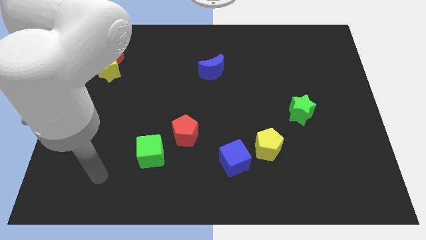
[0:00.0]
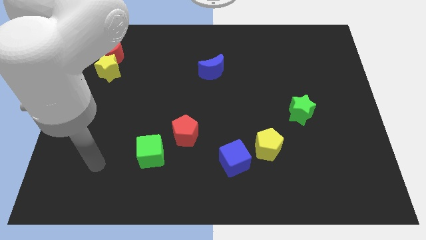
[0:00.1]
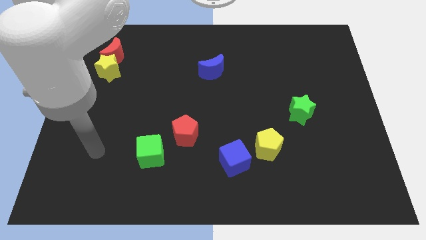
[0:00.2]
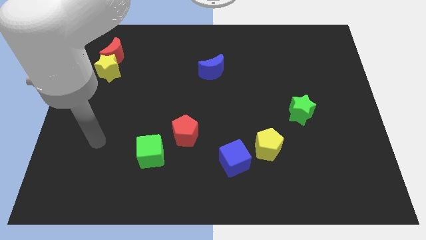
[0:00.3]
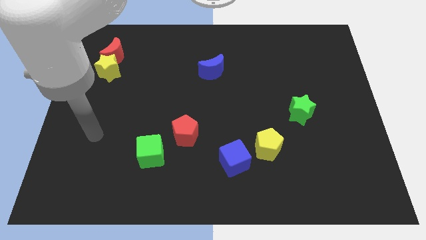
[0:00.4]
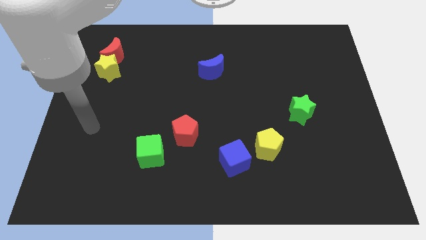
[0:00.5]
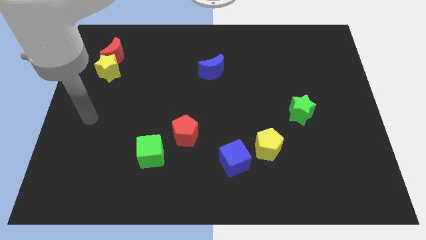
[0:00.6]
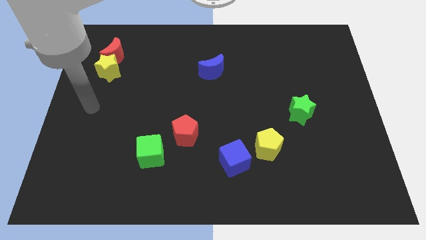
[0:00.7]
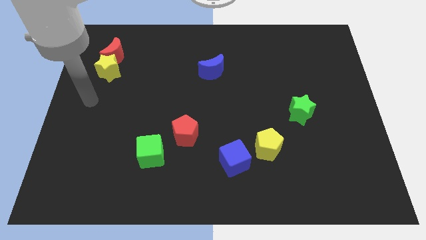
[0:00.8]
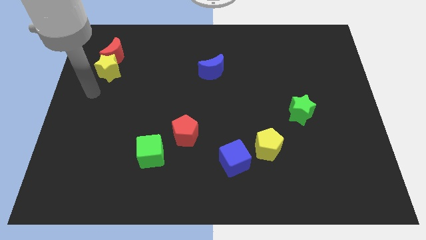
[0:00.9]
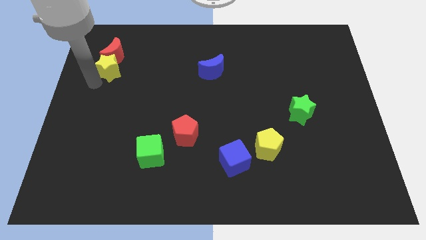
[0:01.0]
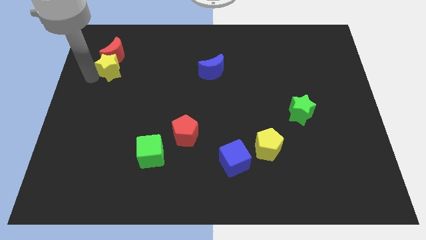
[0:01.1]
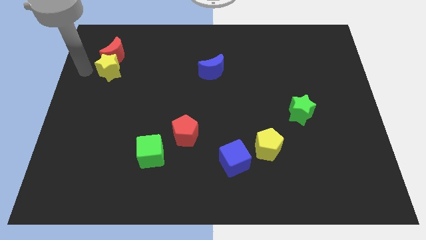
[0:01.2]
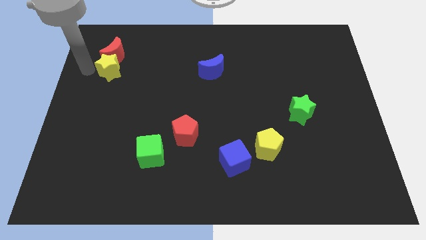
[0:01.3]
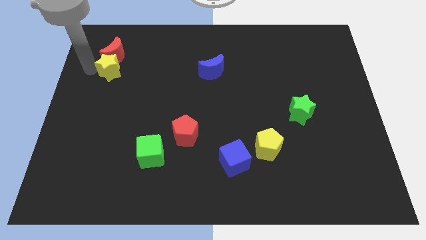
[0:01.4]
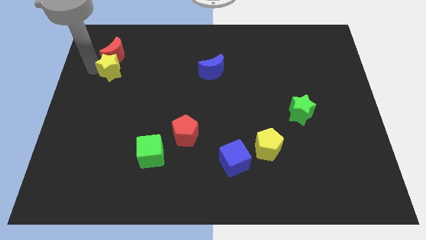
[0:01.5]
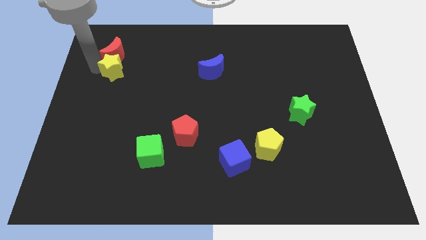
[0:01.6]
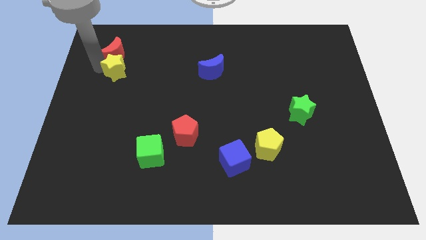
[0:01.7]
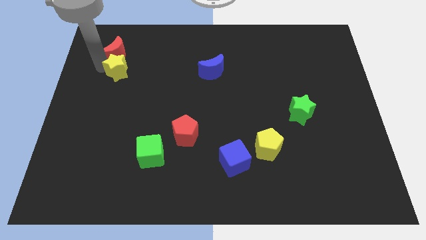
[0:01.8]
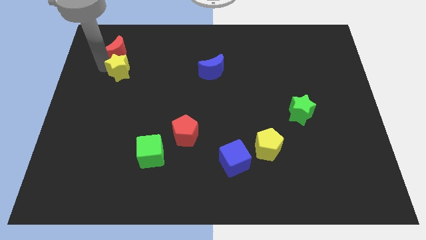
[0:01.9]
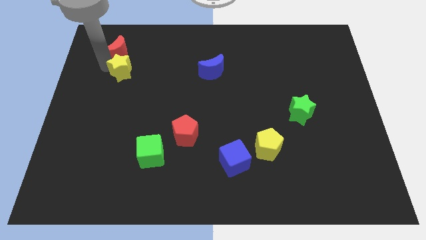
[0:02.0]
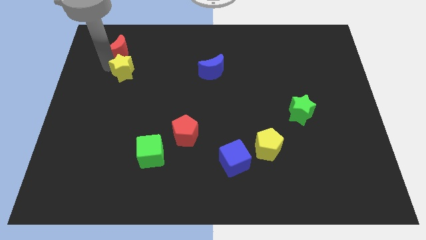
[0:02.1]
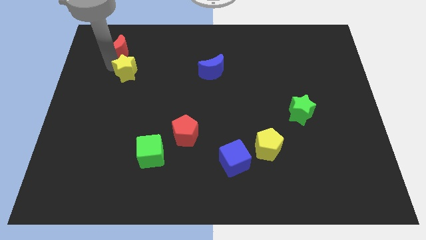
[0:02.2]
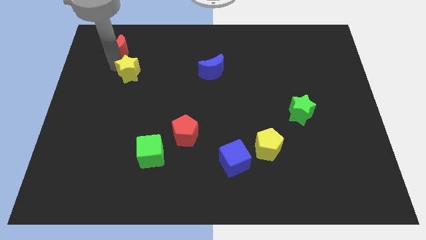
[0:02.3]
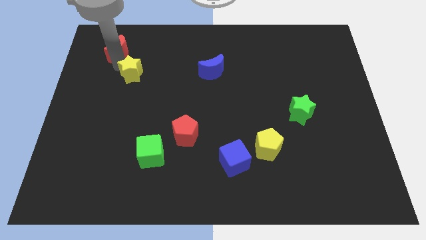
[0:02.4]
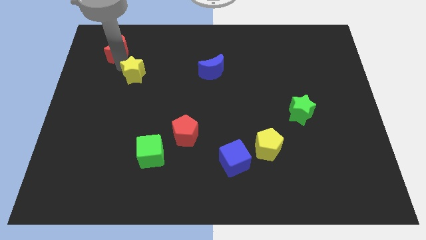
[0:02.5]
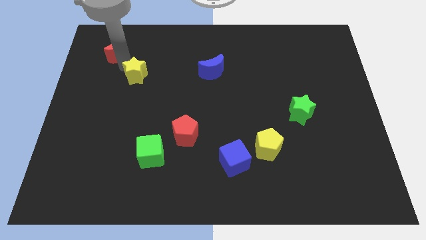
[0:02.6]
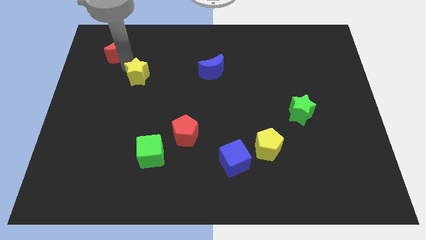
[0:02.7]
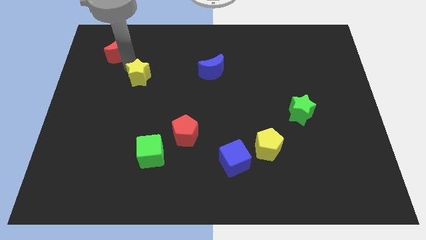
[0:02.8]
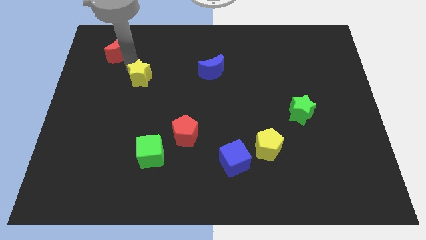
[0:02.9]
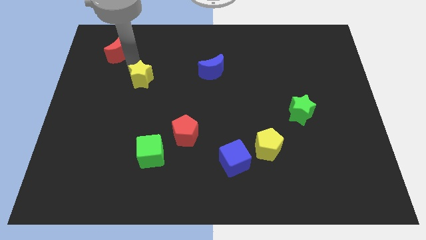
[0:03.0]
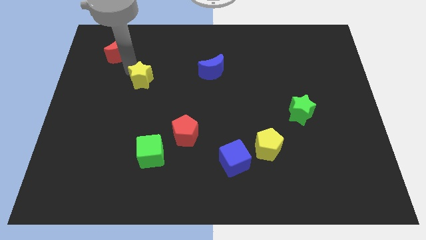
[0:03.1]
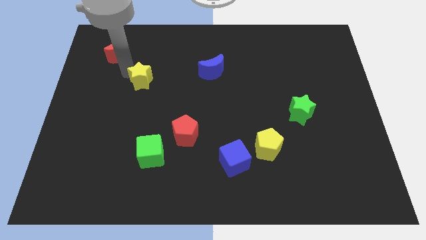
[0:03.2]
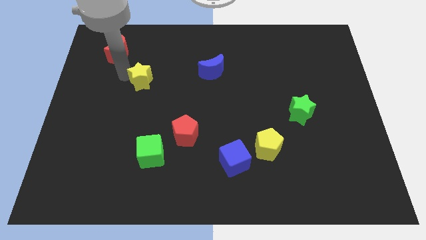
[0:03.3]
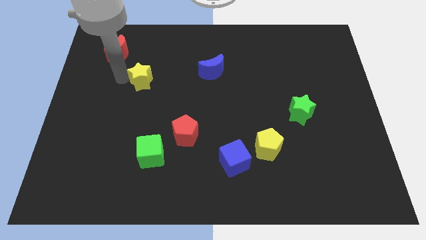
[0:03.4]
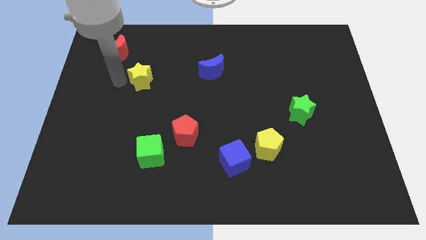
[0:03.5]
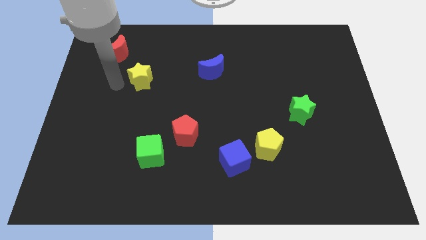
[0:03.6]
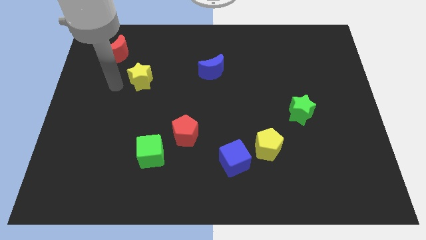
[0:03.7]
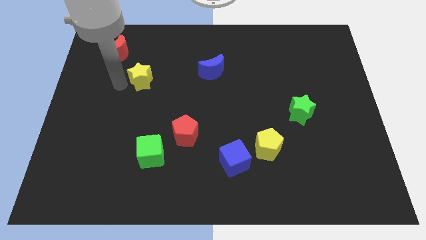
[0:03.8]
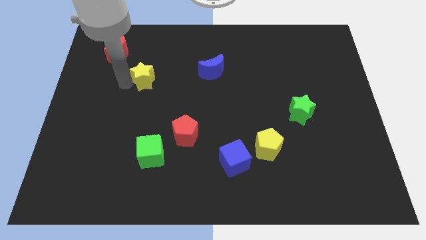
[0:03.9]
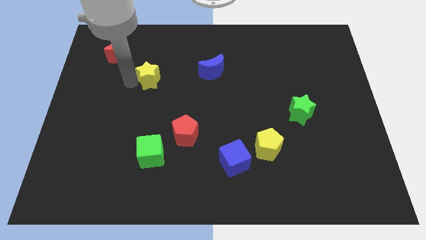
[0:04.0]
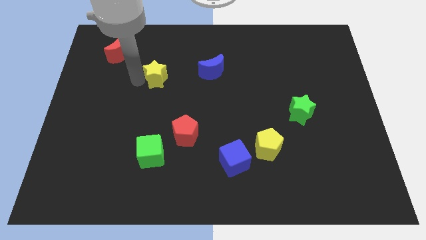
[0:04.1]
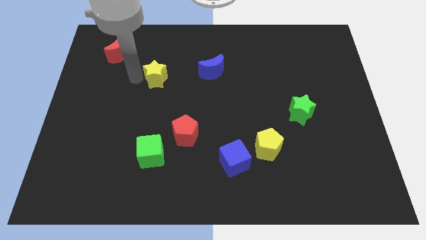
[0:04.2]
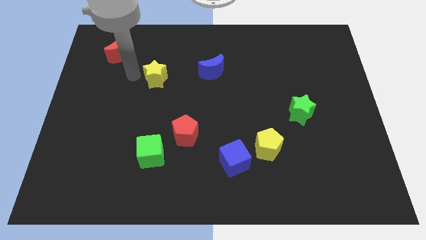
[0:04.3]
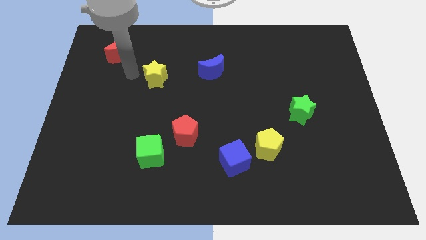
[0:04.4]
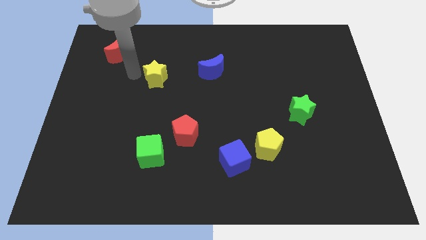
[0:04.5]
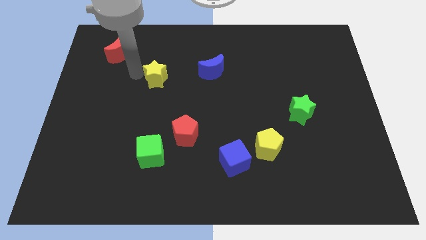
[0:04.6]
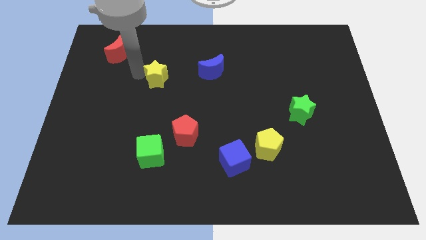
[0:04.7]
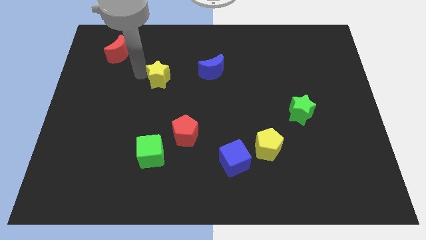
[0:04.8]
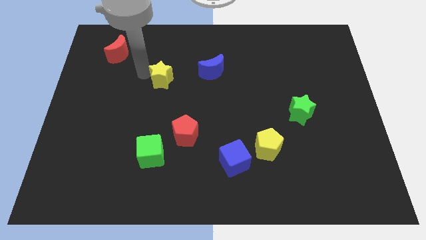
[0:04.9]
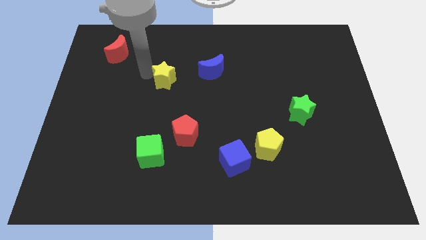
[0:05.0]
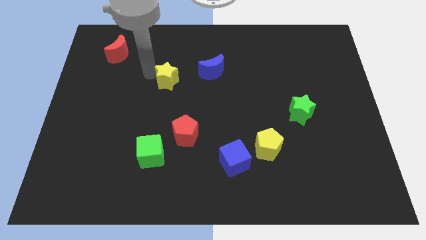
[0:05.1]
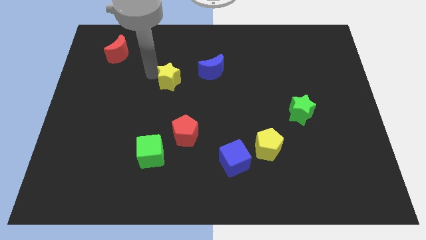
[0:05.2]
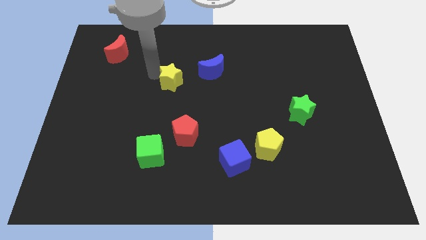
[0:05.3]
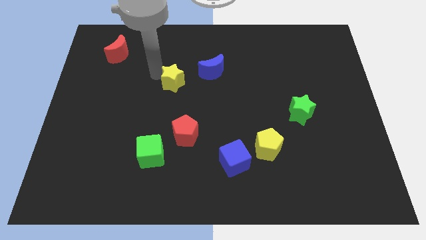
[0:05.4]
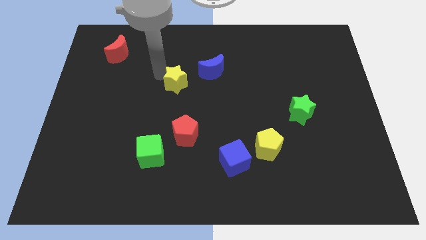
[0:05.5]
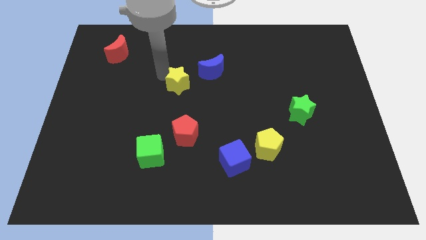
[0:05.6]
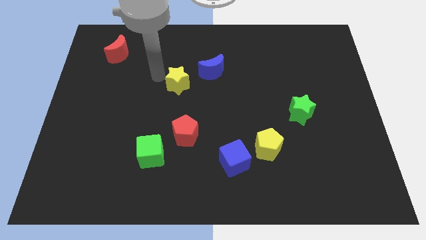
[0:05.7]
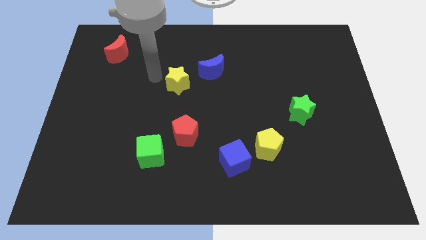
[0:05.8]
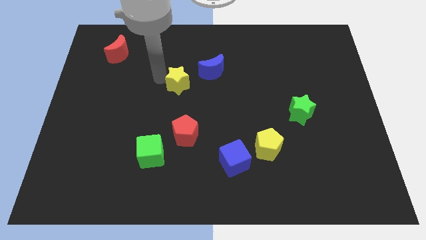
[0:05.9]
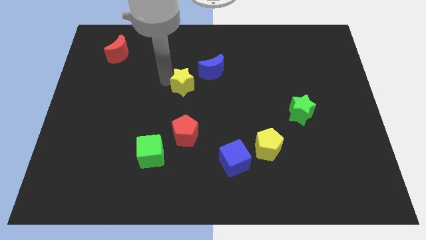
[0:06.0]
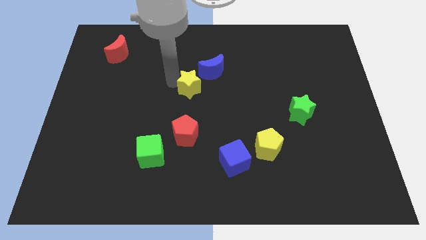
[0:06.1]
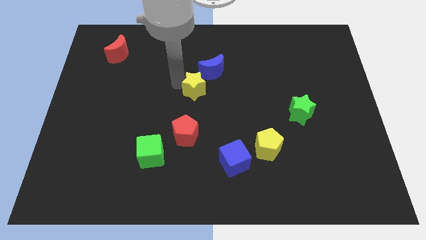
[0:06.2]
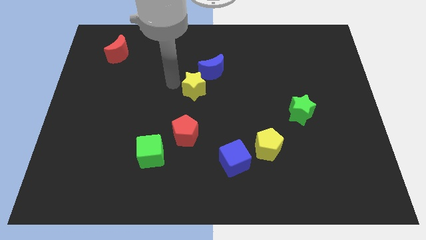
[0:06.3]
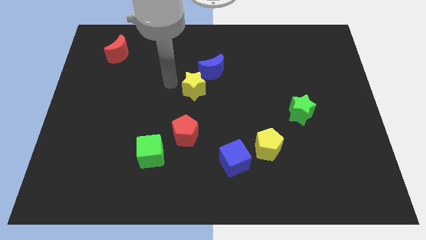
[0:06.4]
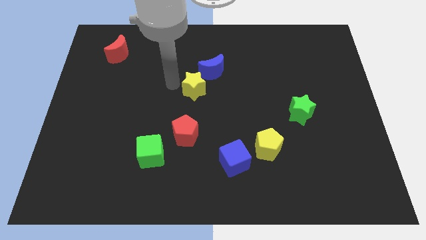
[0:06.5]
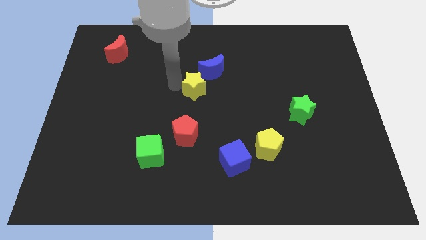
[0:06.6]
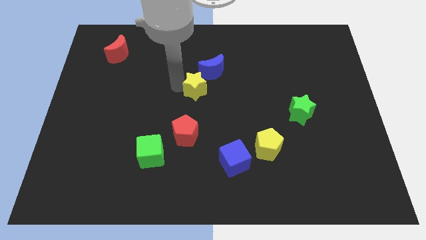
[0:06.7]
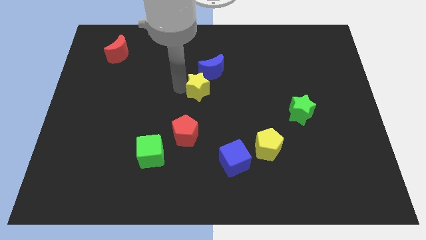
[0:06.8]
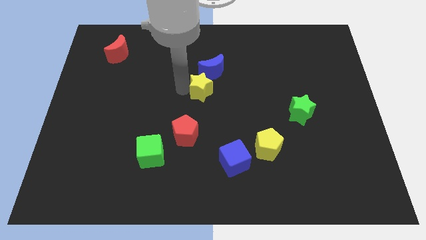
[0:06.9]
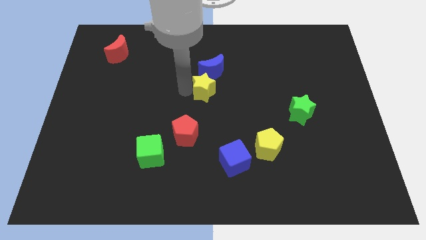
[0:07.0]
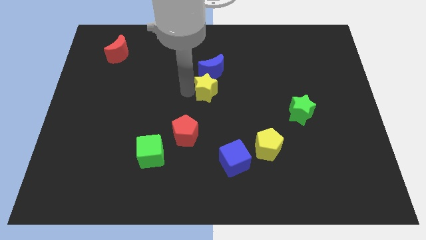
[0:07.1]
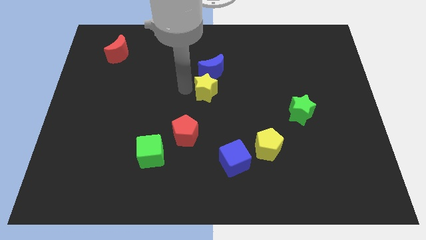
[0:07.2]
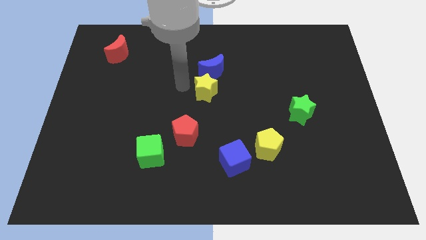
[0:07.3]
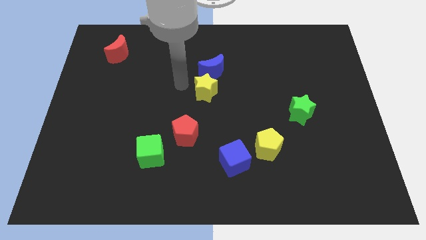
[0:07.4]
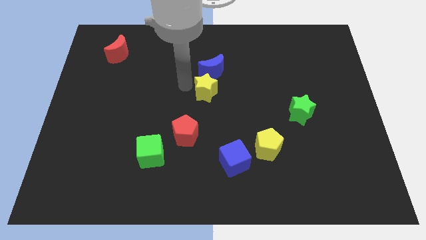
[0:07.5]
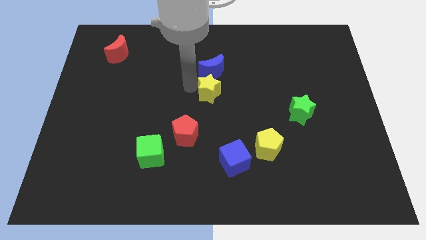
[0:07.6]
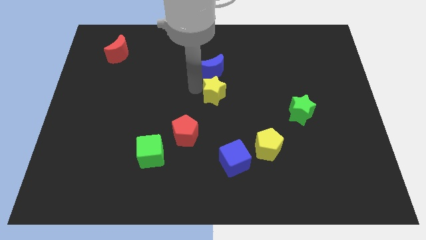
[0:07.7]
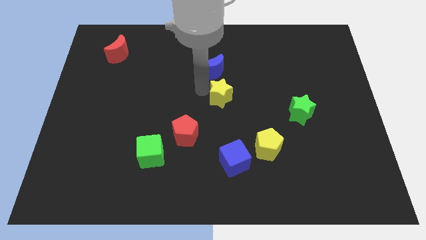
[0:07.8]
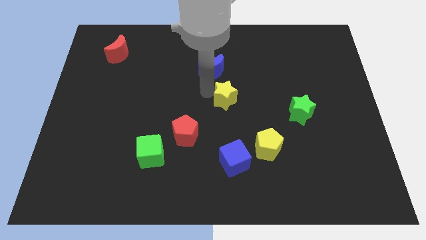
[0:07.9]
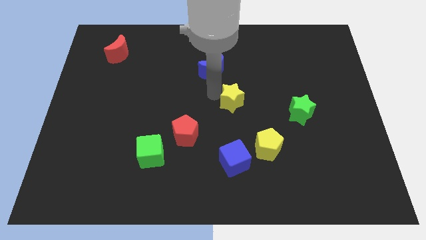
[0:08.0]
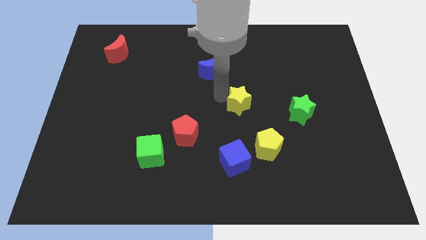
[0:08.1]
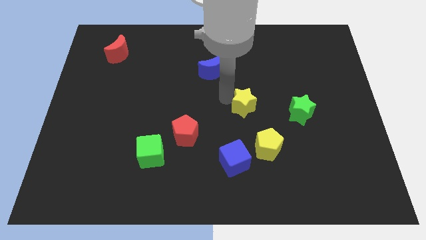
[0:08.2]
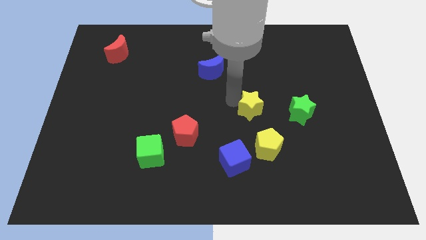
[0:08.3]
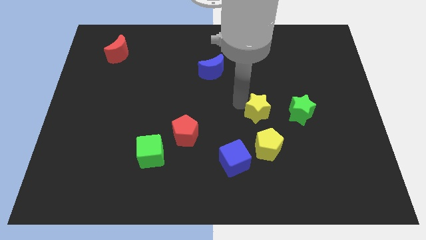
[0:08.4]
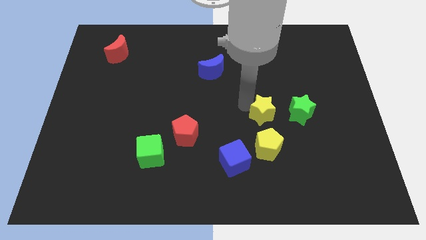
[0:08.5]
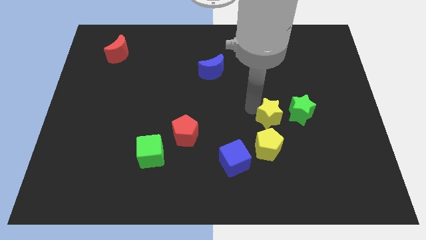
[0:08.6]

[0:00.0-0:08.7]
move the yellow star to the top right side of the yellow pentagon
